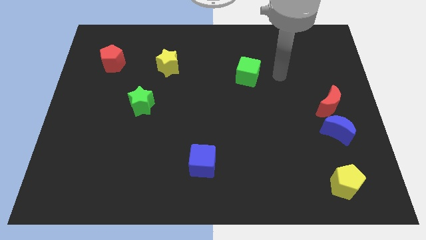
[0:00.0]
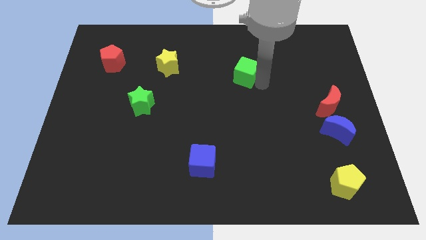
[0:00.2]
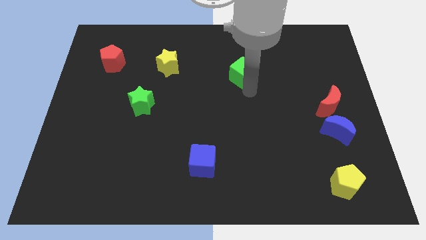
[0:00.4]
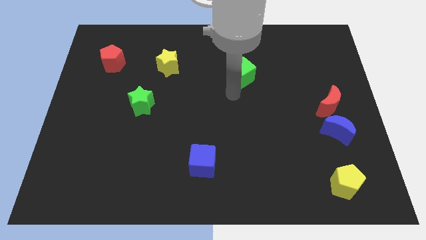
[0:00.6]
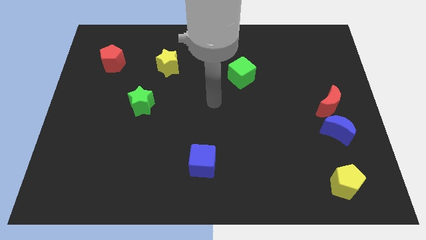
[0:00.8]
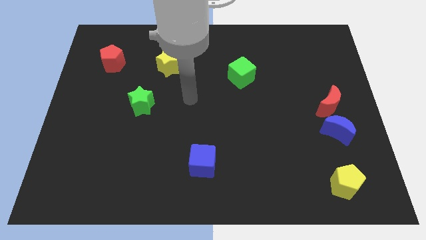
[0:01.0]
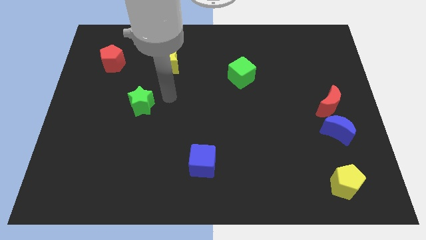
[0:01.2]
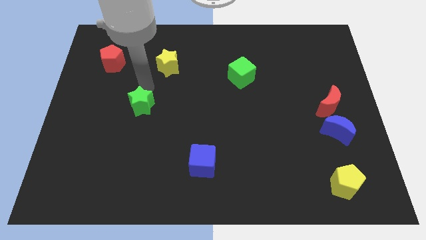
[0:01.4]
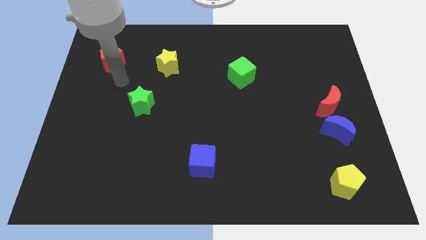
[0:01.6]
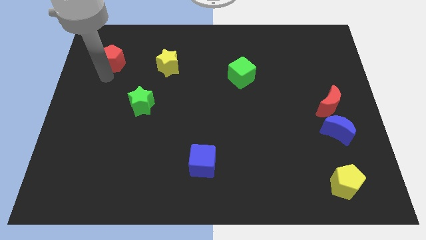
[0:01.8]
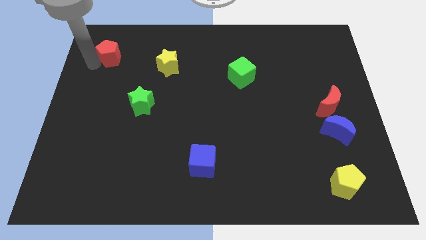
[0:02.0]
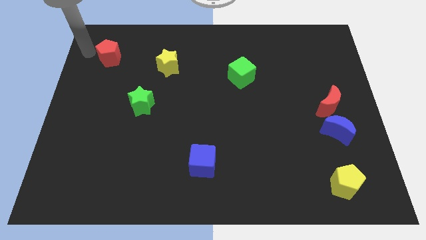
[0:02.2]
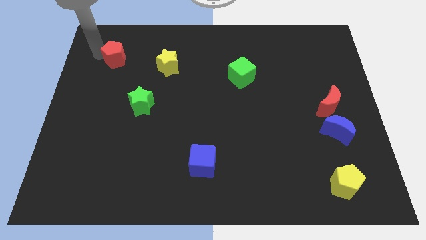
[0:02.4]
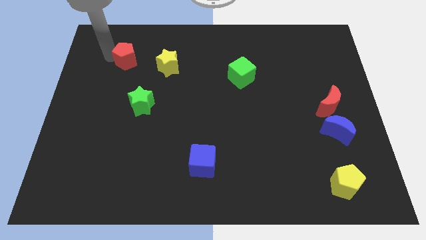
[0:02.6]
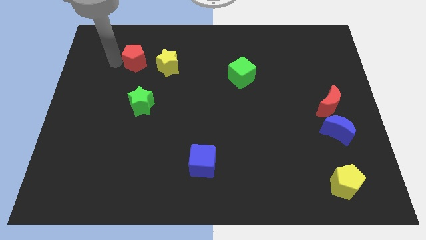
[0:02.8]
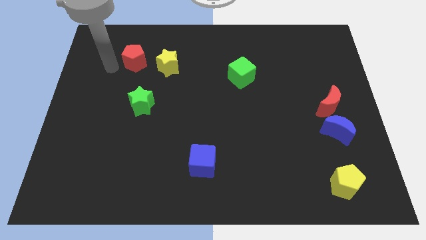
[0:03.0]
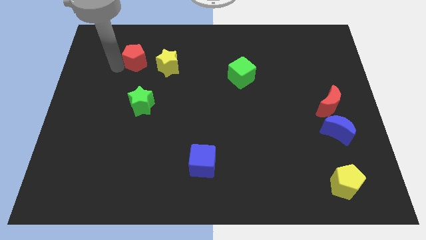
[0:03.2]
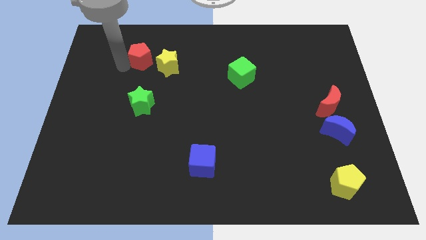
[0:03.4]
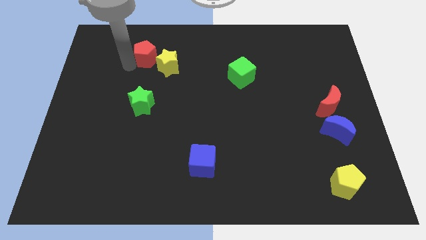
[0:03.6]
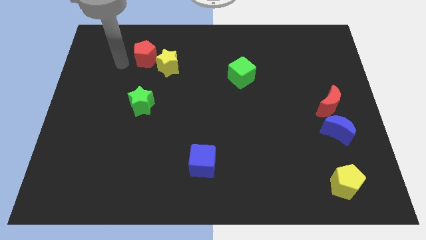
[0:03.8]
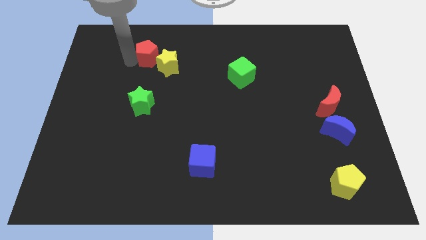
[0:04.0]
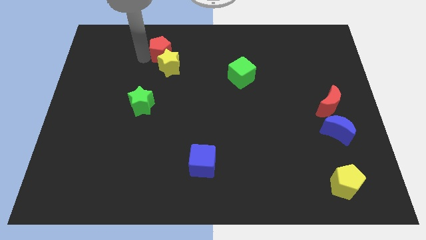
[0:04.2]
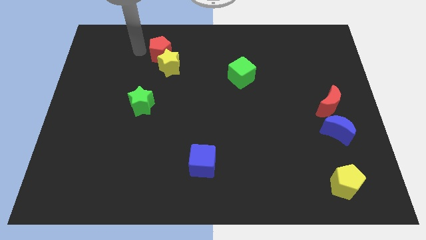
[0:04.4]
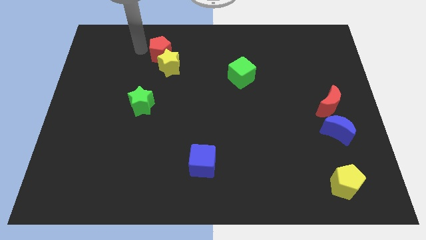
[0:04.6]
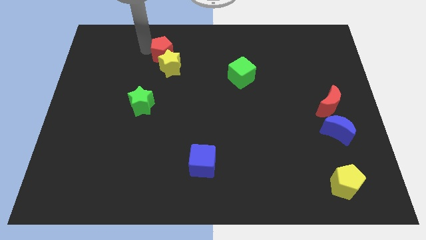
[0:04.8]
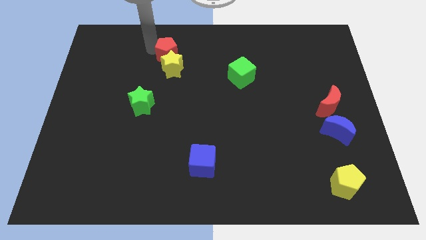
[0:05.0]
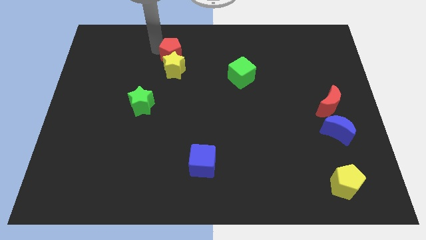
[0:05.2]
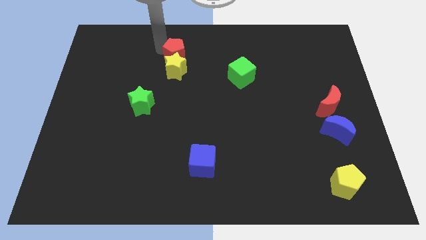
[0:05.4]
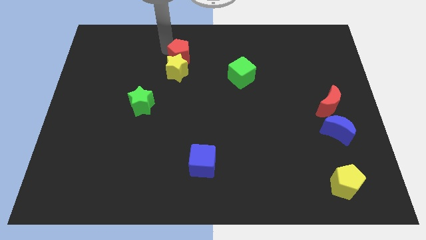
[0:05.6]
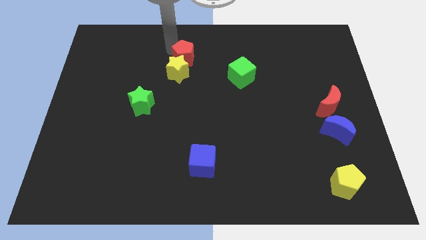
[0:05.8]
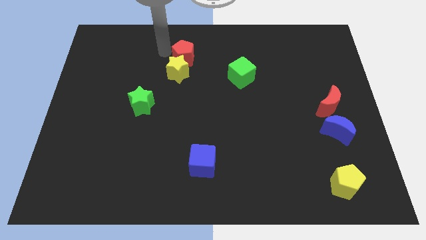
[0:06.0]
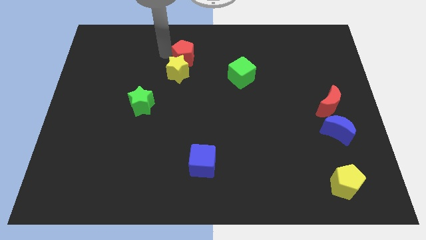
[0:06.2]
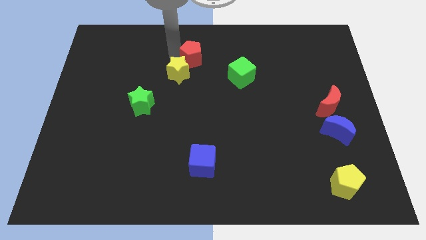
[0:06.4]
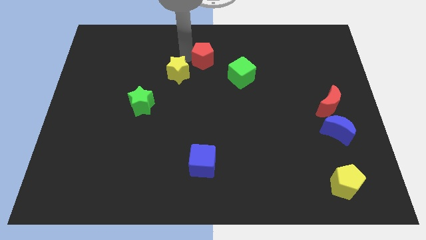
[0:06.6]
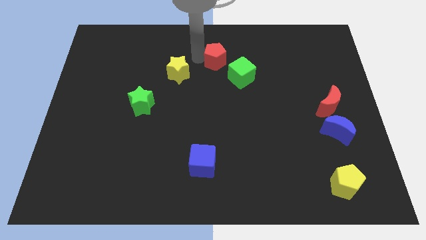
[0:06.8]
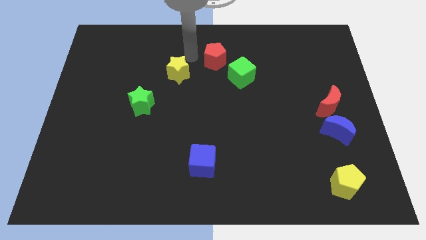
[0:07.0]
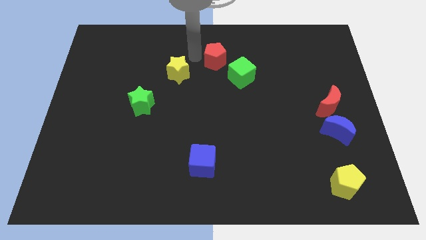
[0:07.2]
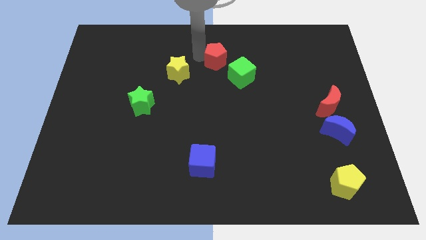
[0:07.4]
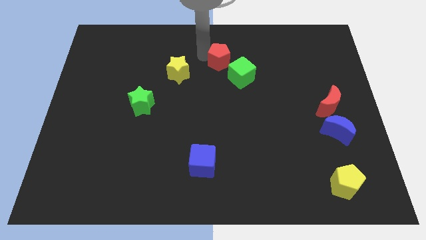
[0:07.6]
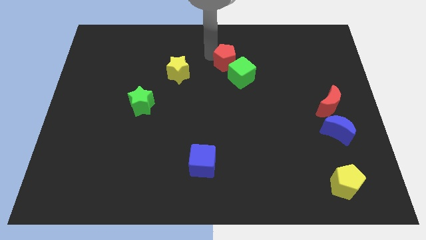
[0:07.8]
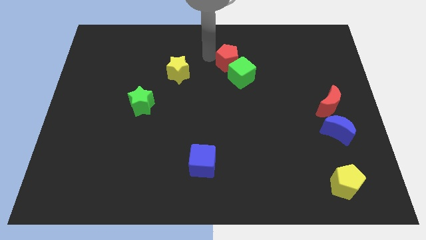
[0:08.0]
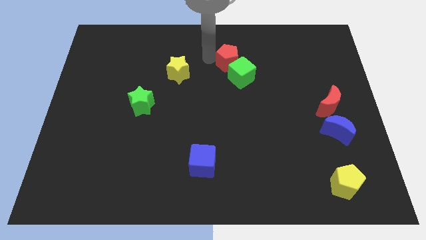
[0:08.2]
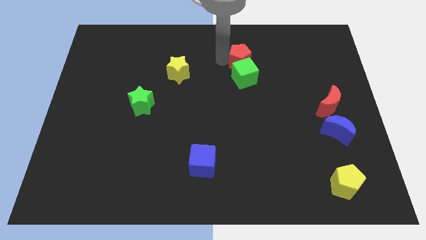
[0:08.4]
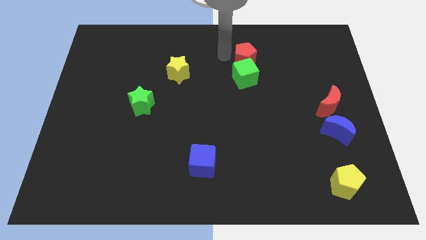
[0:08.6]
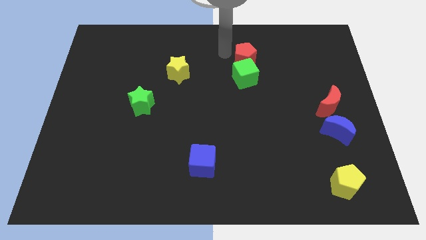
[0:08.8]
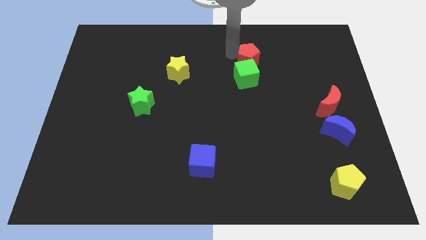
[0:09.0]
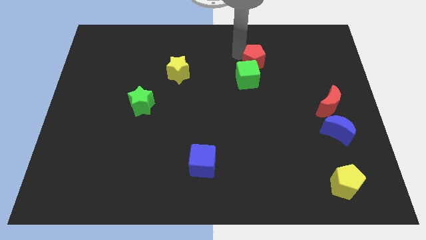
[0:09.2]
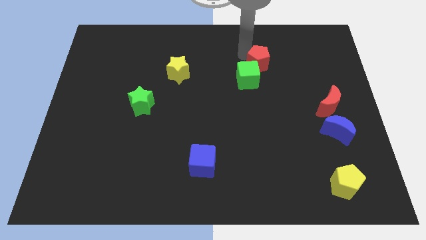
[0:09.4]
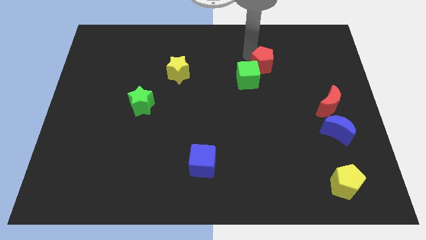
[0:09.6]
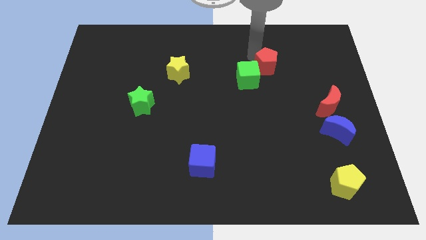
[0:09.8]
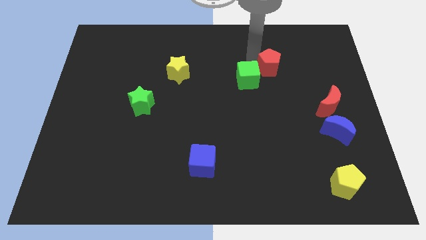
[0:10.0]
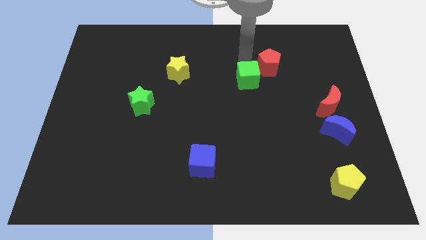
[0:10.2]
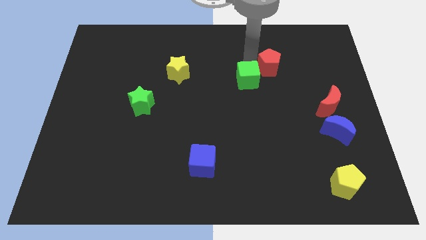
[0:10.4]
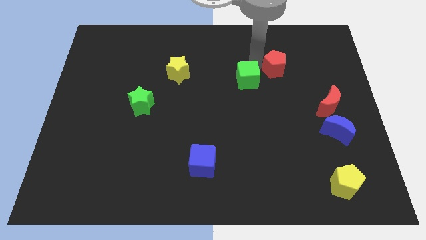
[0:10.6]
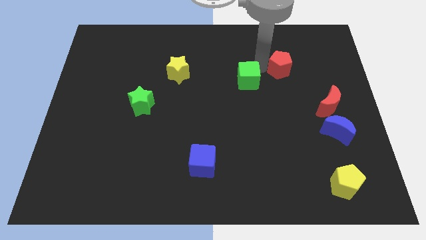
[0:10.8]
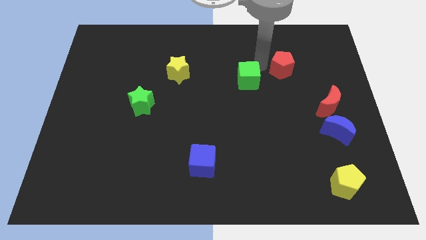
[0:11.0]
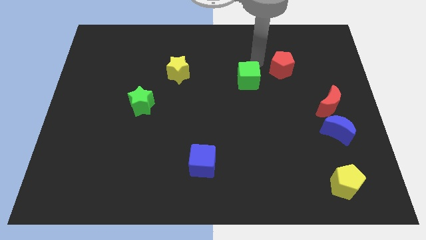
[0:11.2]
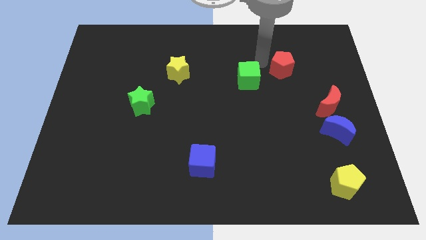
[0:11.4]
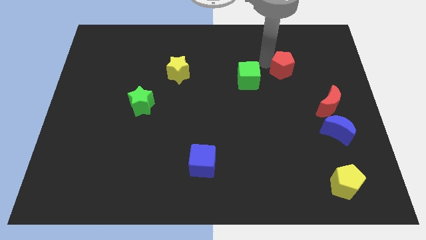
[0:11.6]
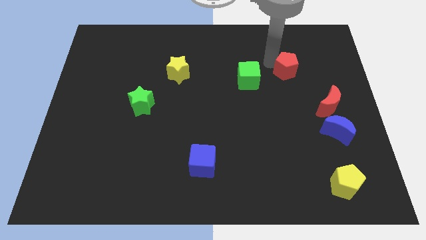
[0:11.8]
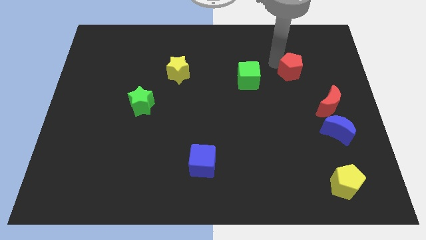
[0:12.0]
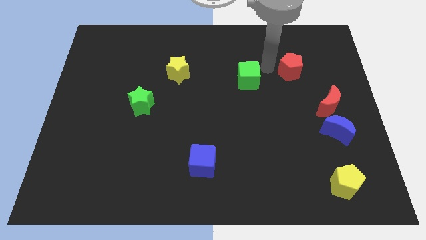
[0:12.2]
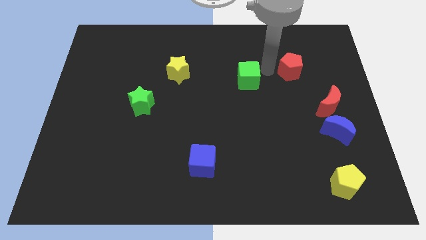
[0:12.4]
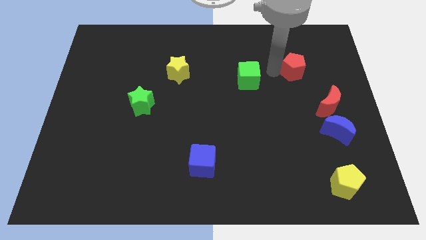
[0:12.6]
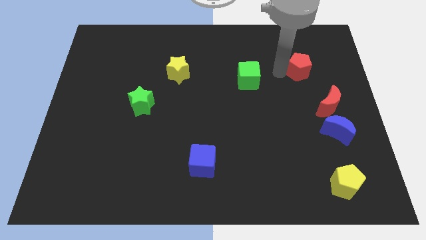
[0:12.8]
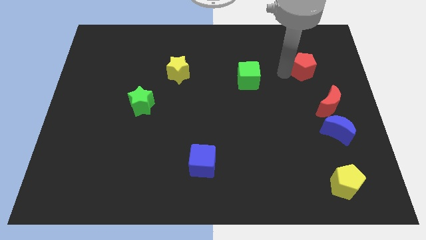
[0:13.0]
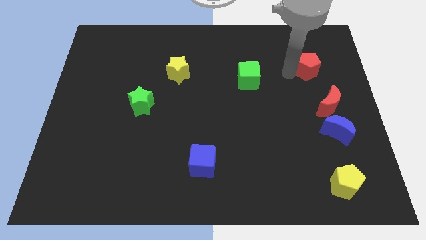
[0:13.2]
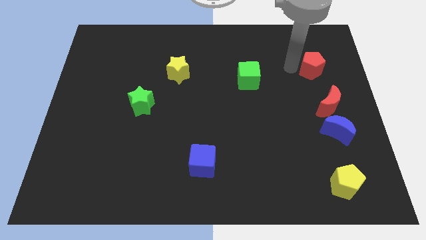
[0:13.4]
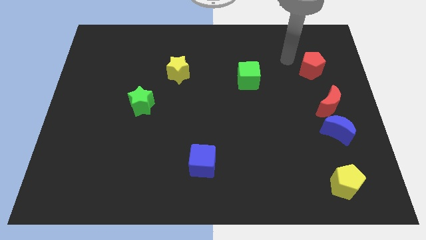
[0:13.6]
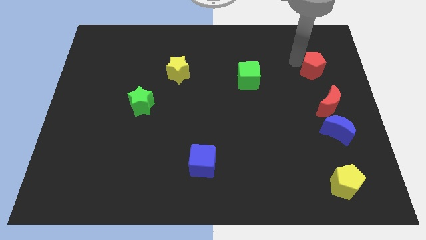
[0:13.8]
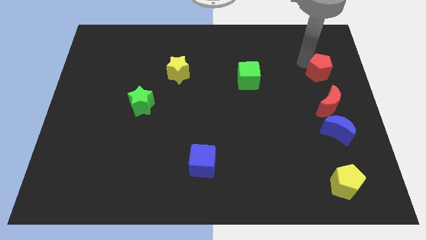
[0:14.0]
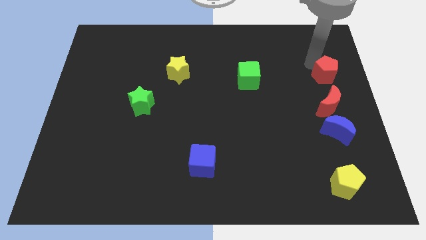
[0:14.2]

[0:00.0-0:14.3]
push the red pentagon to the center right
